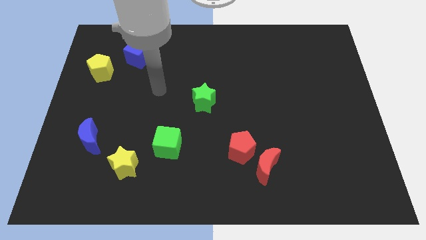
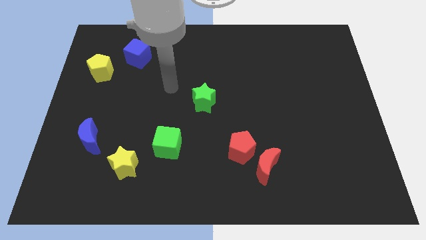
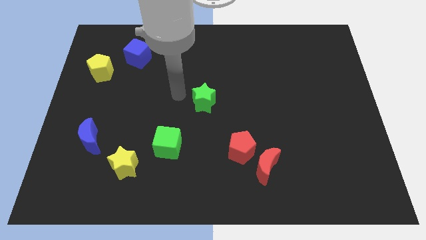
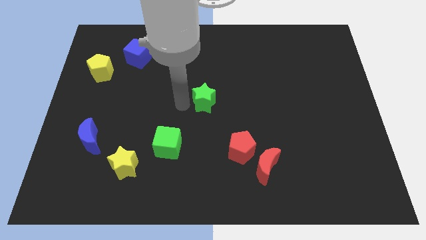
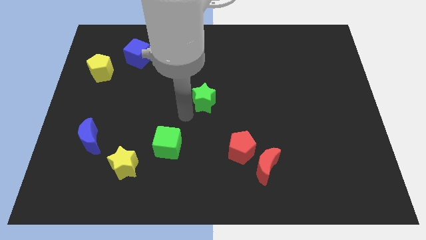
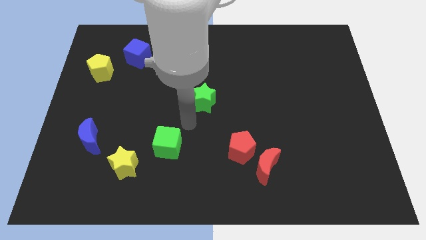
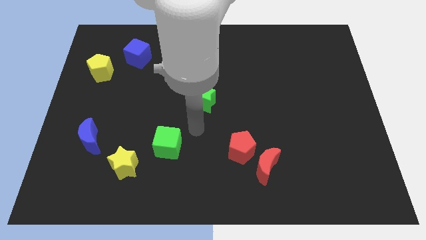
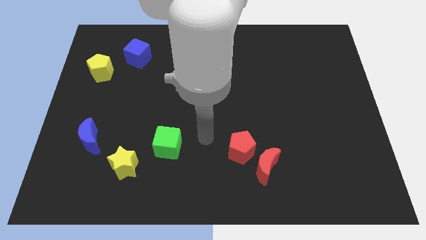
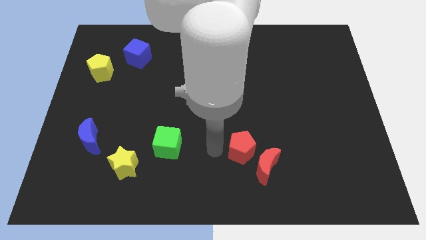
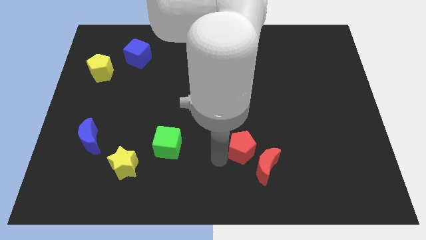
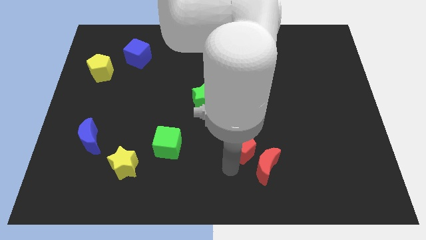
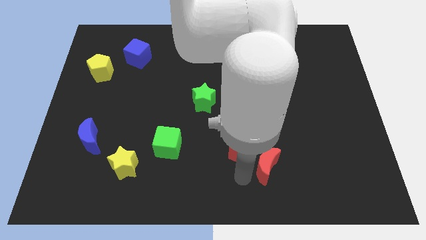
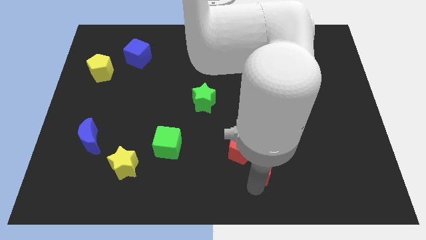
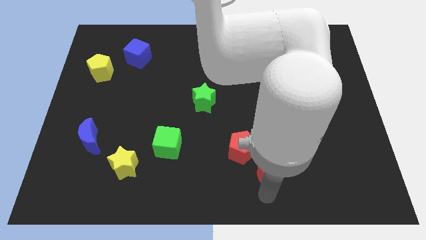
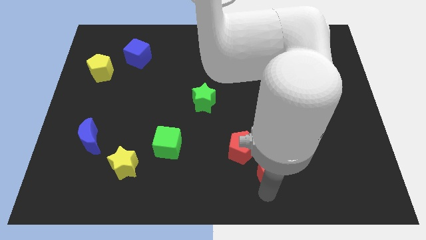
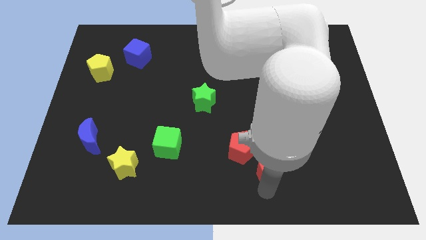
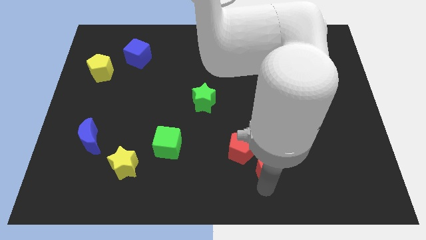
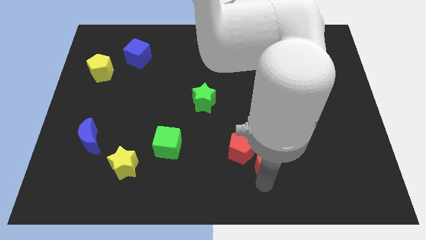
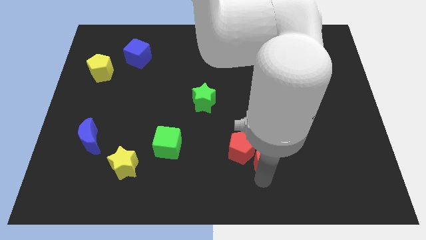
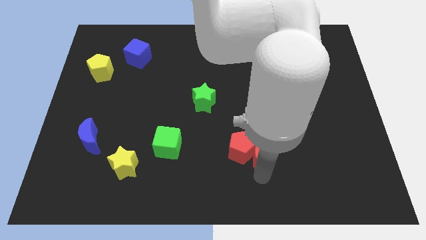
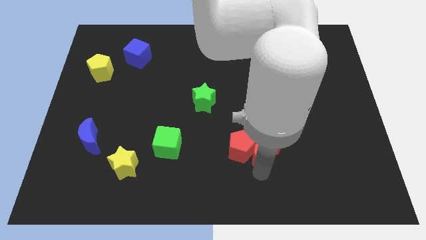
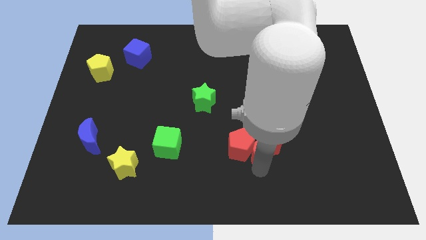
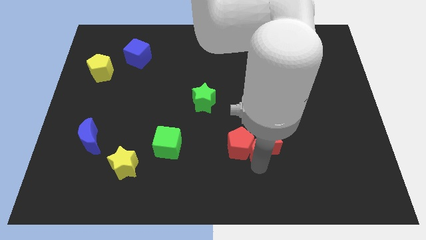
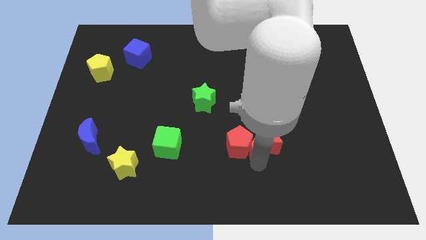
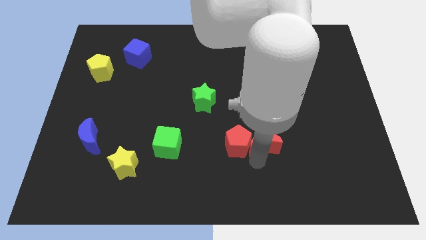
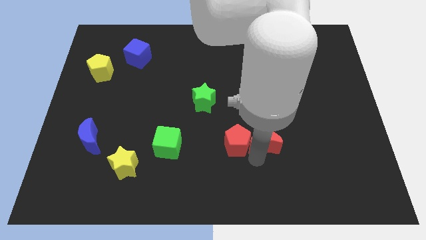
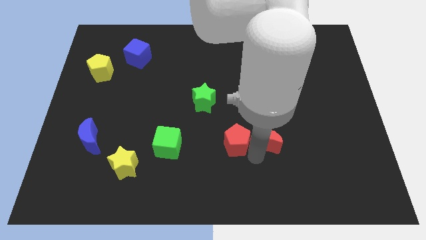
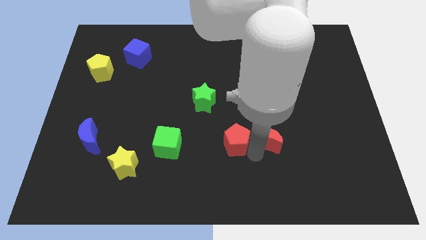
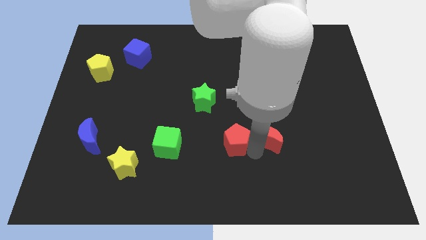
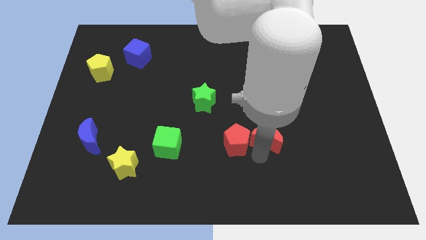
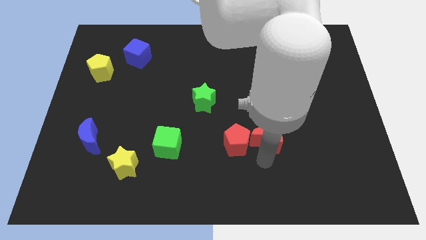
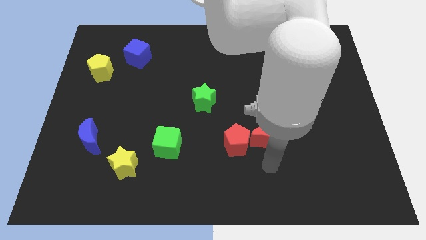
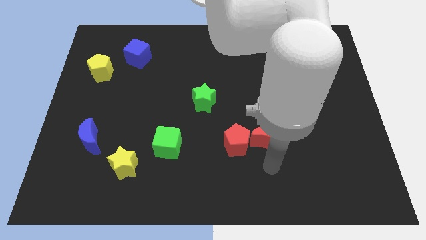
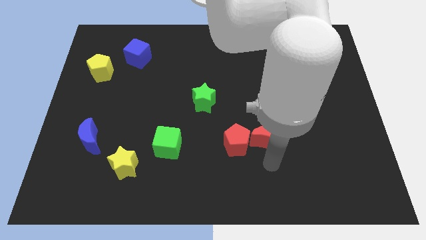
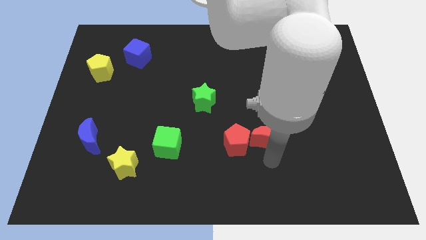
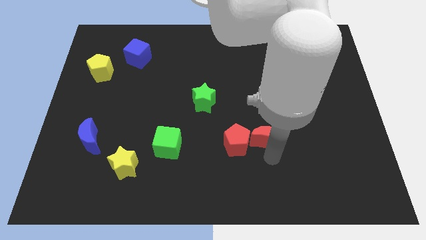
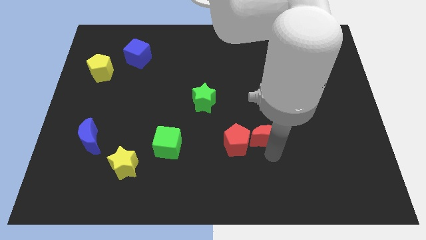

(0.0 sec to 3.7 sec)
slide the red moon a little bit up

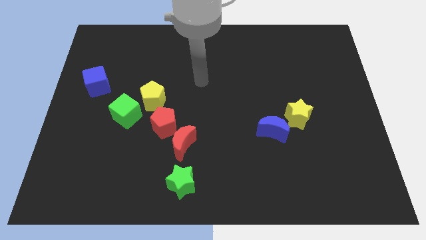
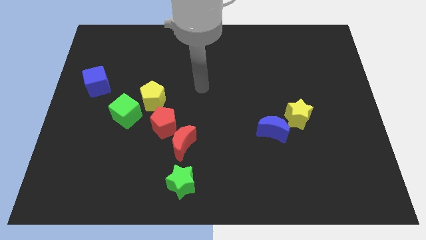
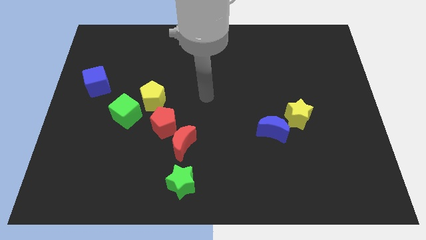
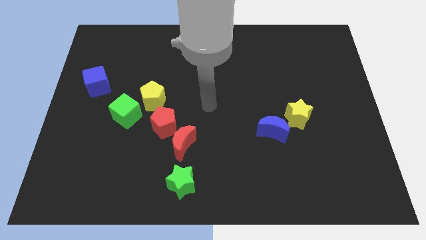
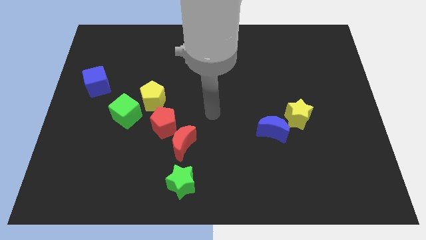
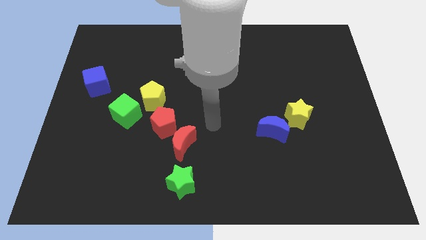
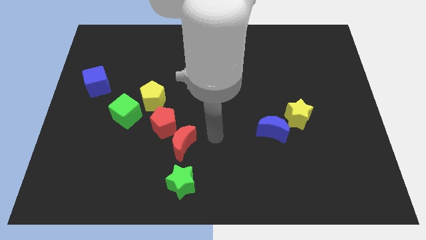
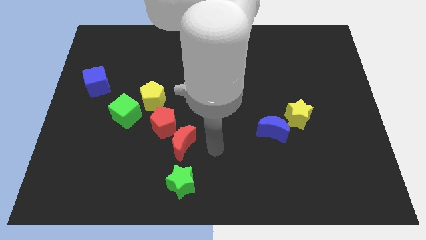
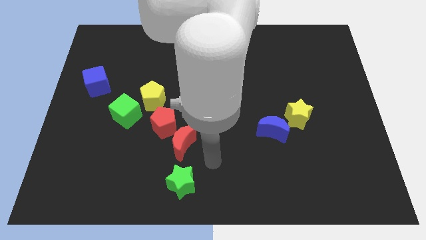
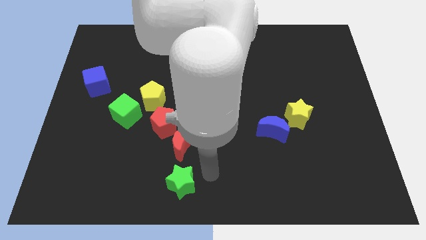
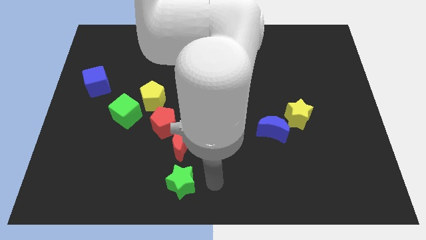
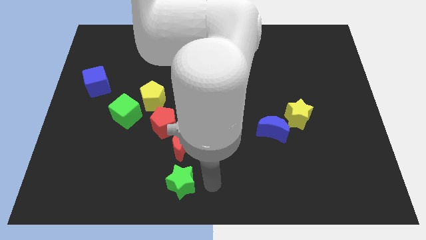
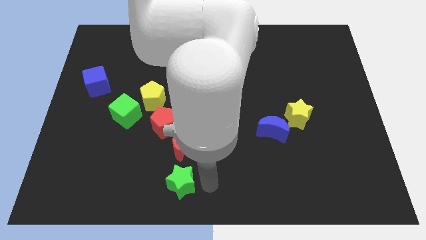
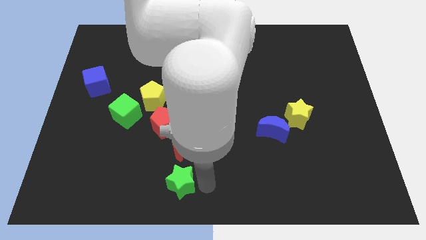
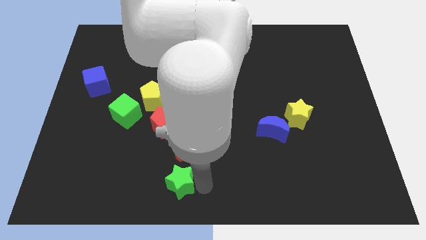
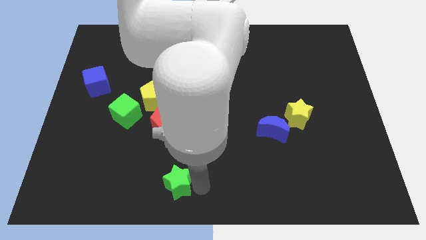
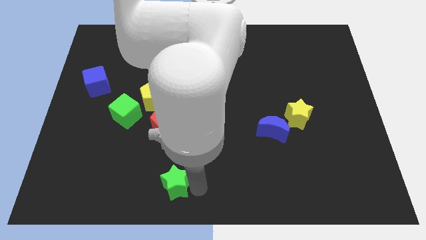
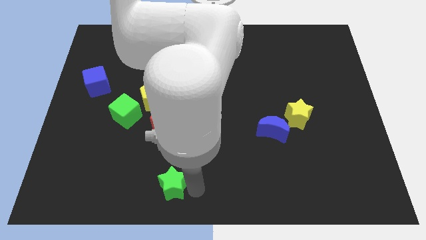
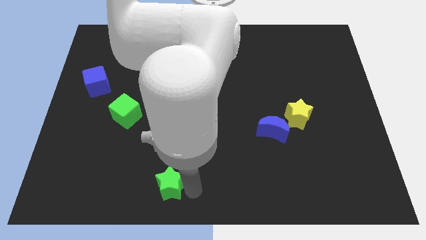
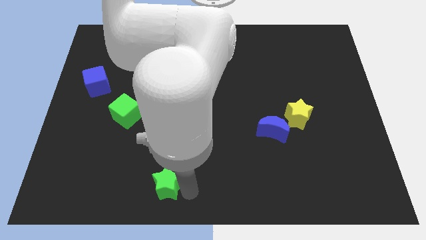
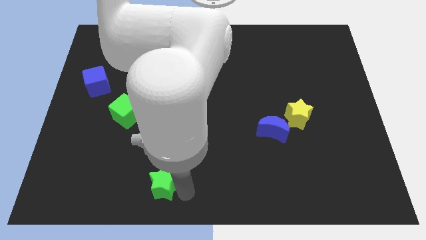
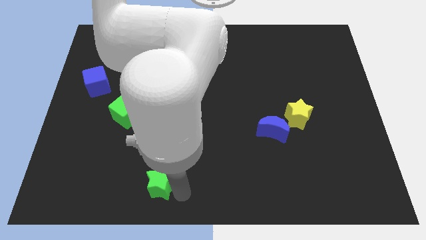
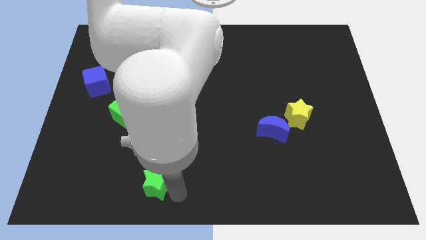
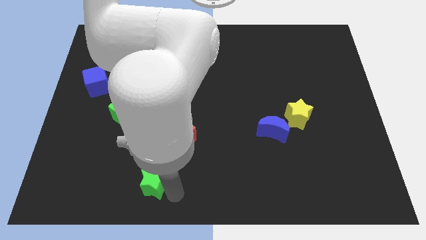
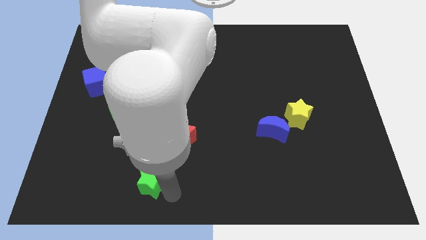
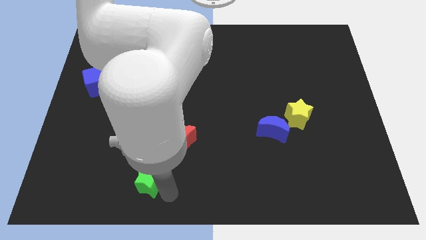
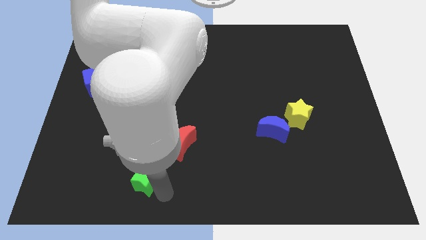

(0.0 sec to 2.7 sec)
slide the green star to the left a bit

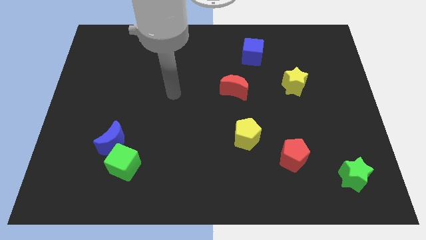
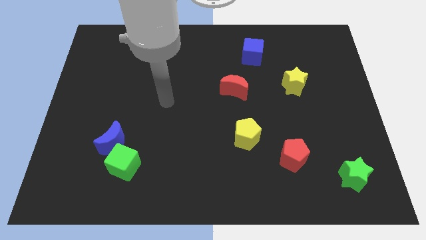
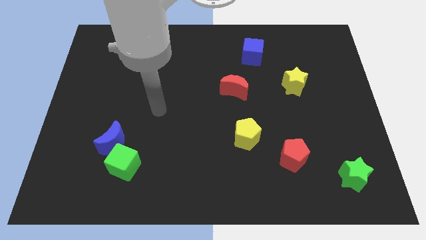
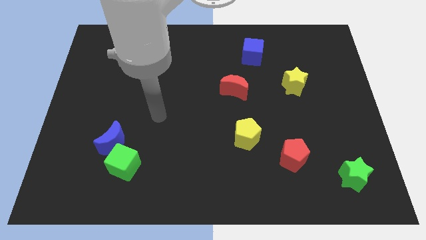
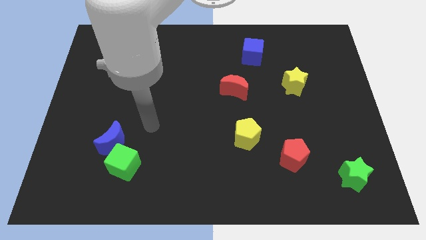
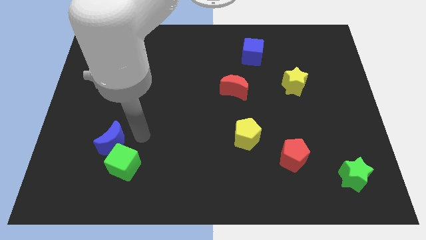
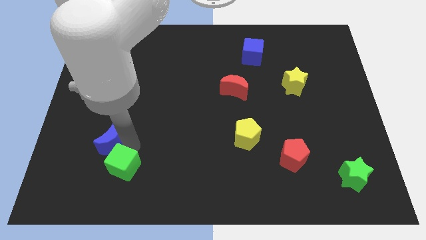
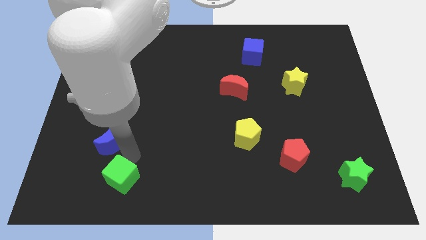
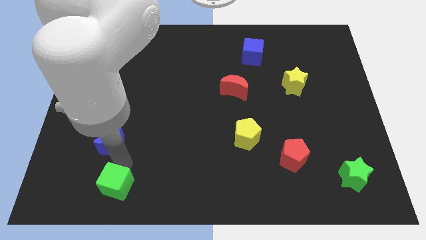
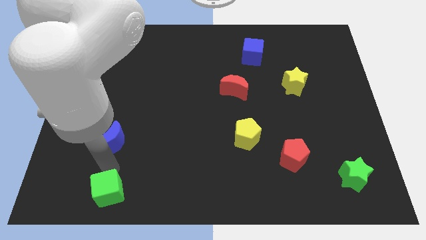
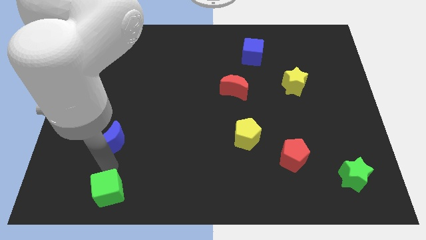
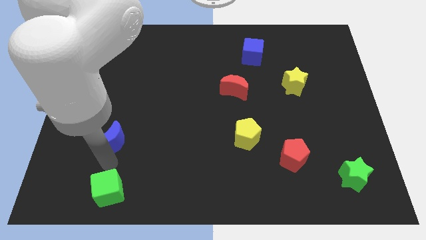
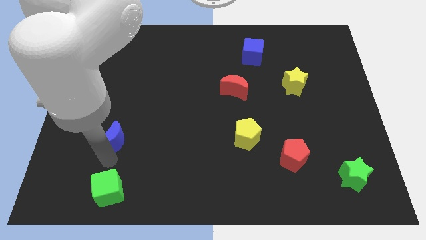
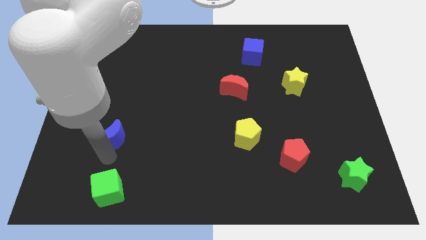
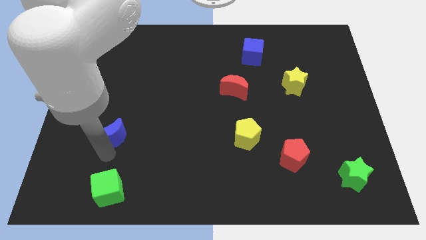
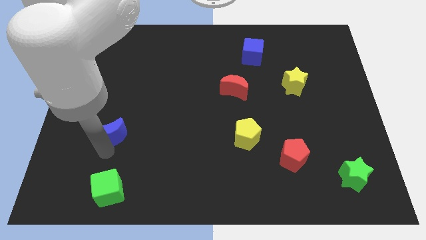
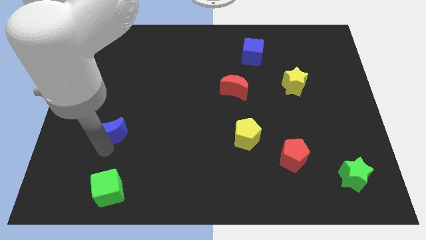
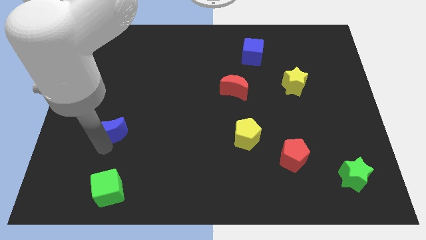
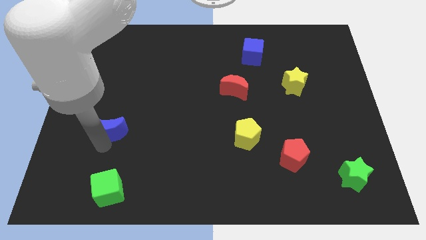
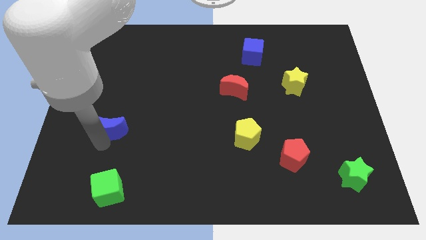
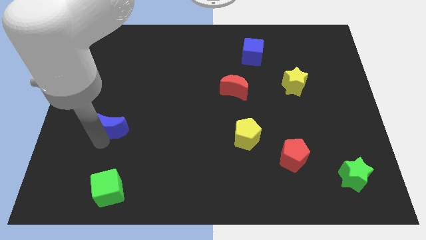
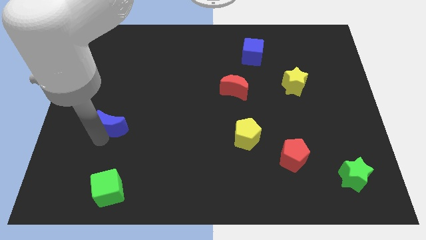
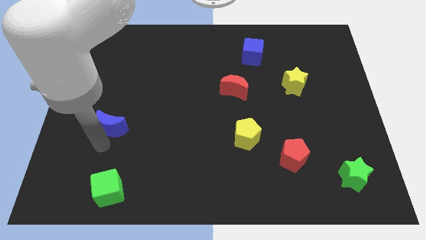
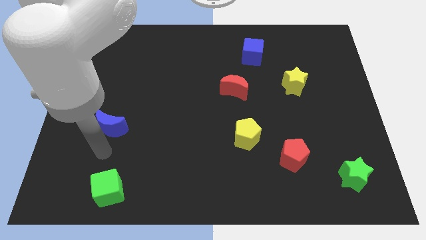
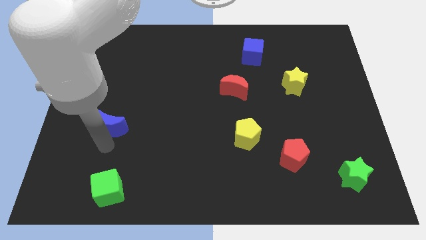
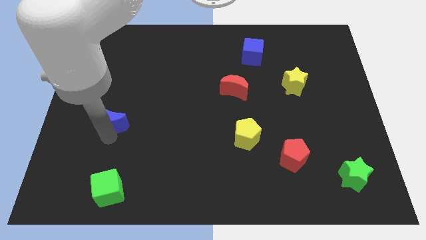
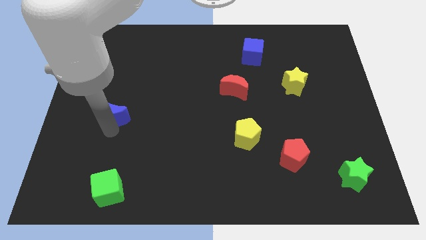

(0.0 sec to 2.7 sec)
push the blue moon somewhat upwards
